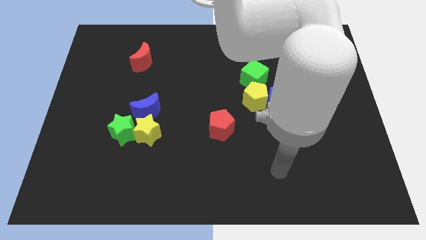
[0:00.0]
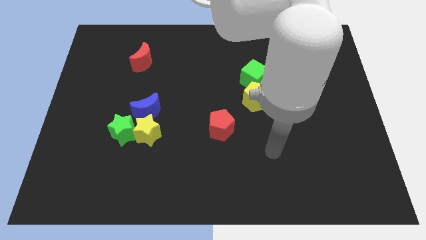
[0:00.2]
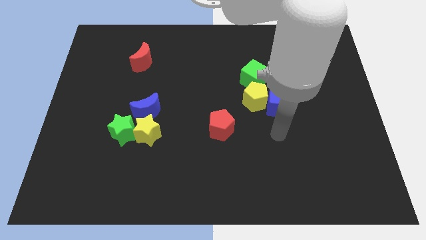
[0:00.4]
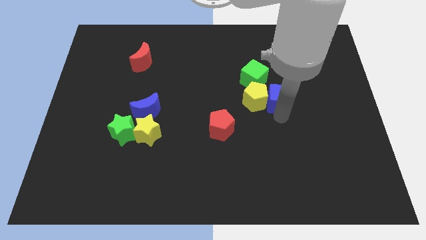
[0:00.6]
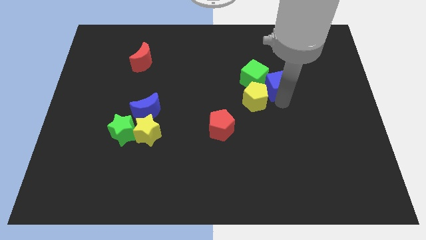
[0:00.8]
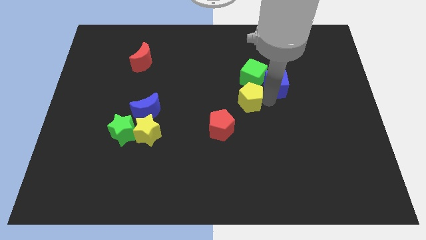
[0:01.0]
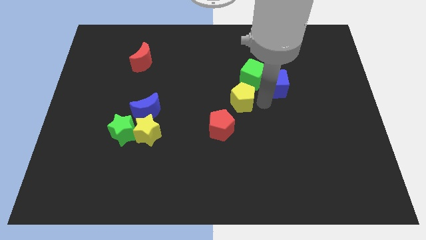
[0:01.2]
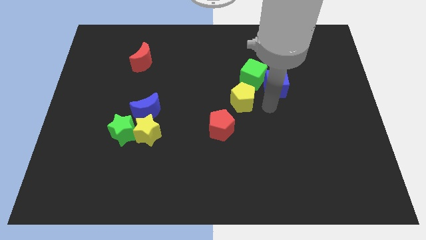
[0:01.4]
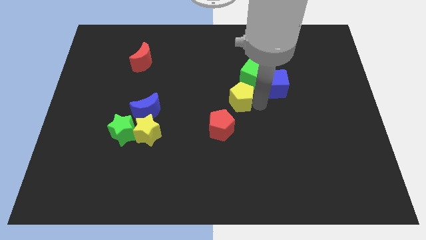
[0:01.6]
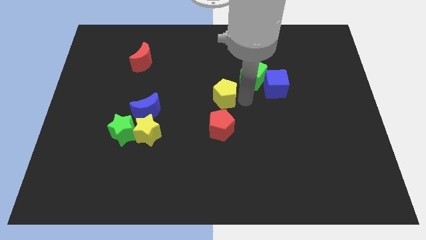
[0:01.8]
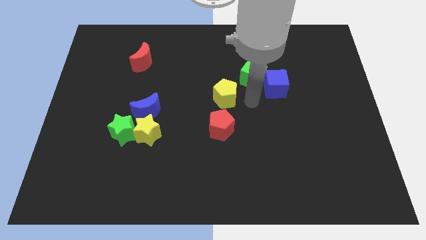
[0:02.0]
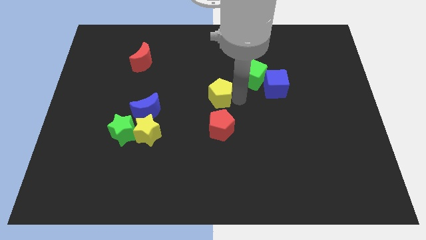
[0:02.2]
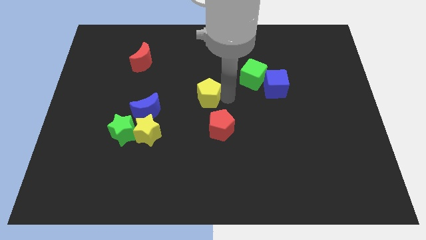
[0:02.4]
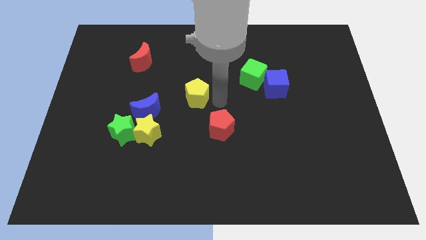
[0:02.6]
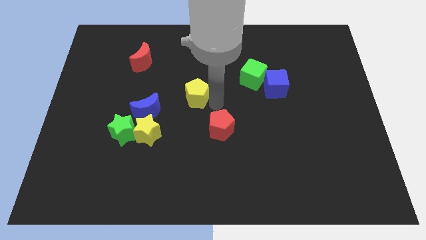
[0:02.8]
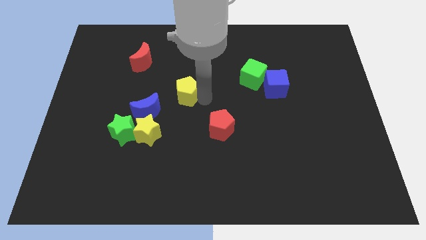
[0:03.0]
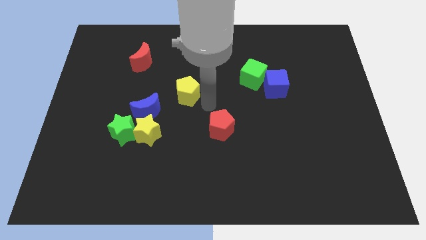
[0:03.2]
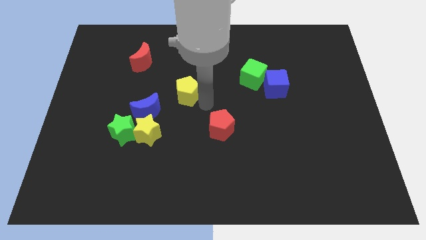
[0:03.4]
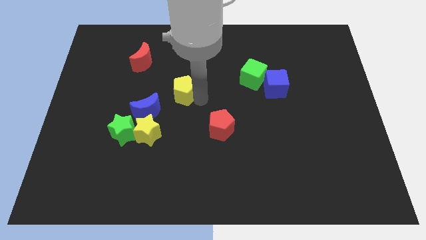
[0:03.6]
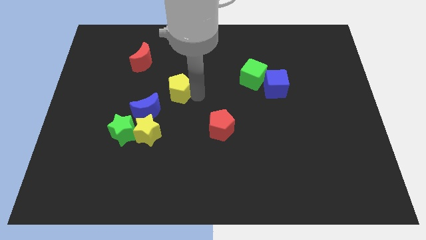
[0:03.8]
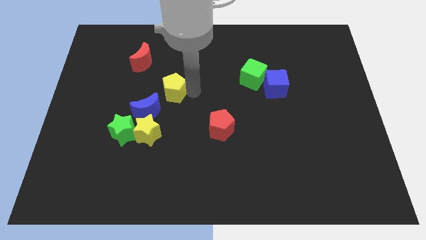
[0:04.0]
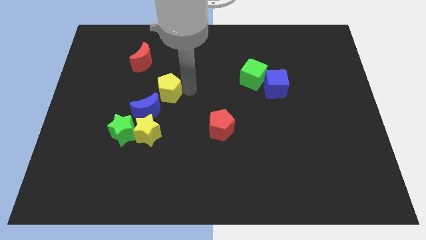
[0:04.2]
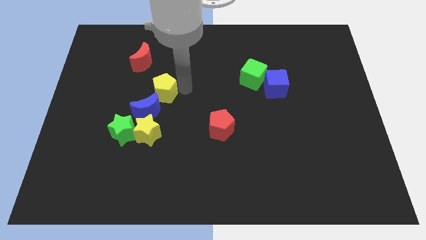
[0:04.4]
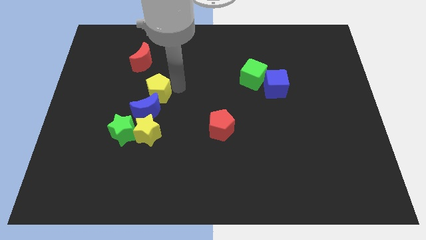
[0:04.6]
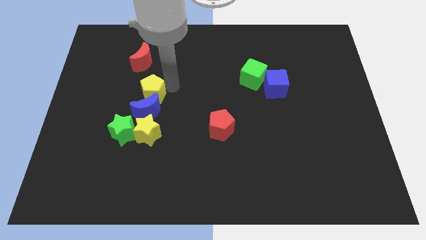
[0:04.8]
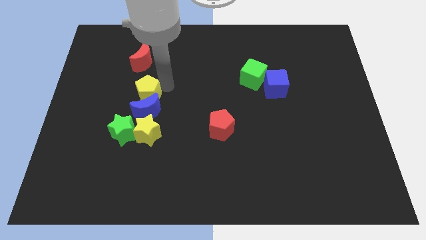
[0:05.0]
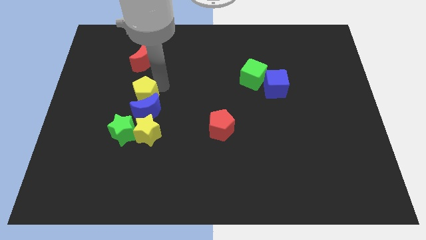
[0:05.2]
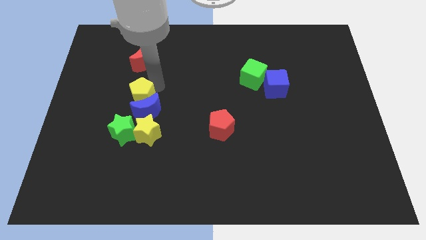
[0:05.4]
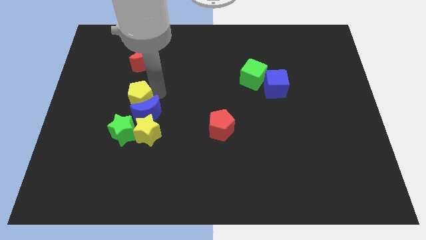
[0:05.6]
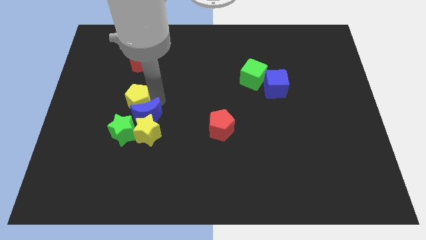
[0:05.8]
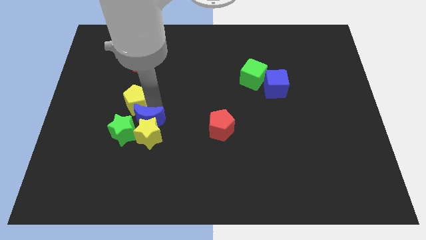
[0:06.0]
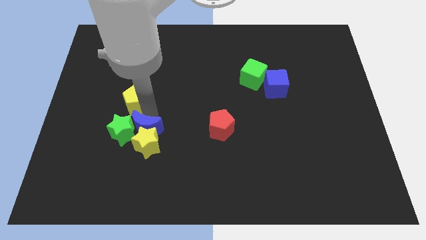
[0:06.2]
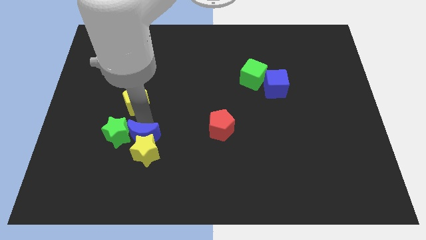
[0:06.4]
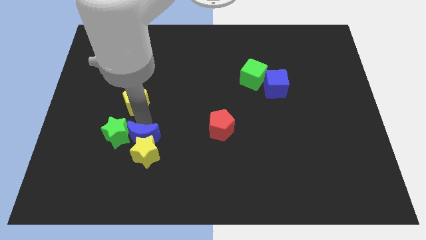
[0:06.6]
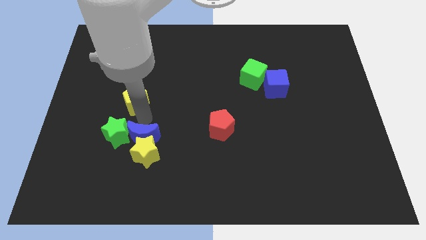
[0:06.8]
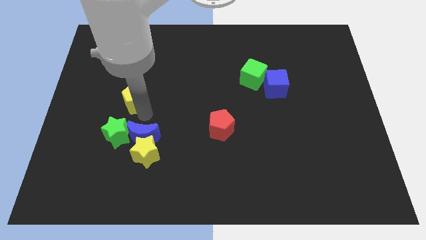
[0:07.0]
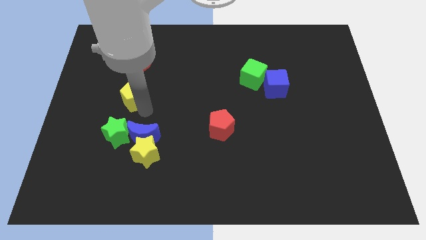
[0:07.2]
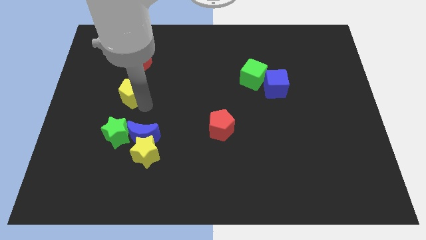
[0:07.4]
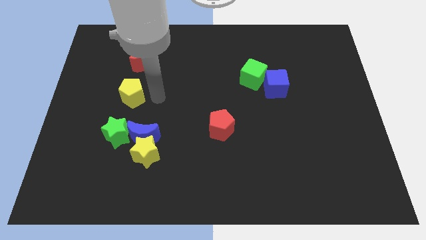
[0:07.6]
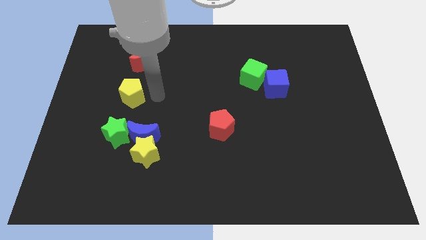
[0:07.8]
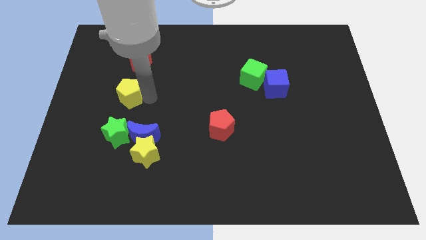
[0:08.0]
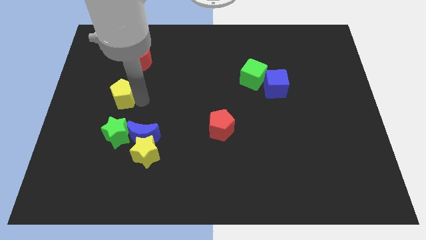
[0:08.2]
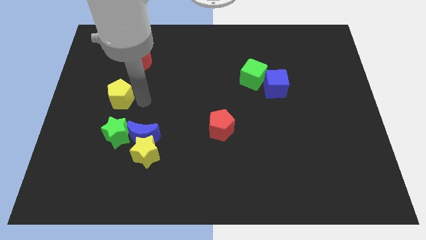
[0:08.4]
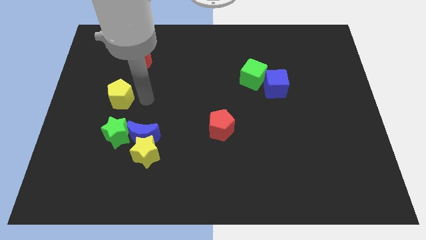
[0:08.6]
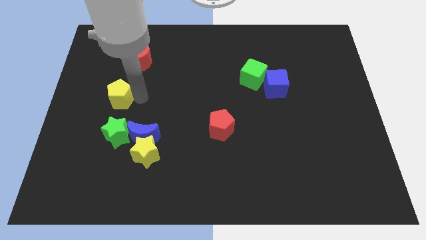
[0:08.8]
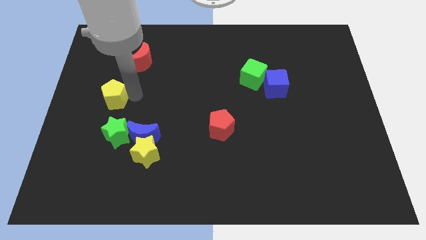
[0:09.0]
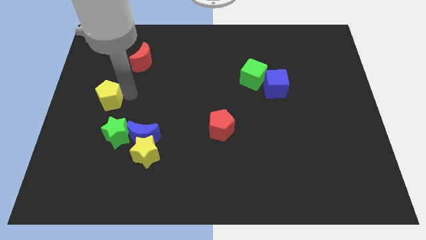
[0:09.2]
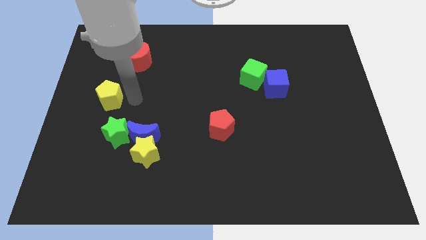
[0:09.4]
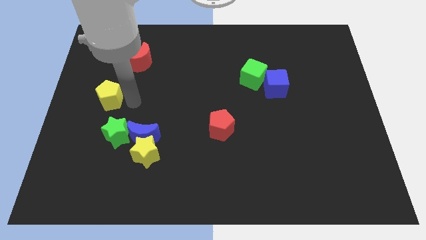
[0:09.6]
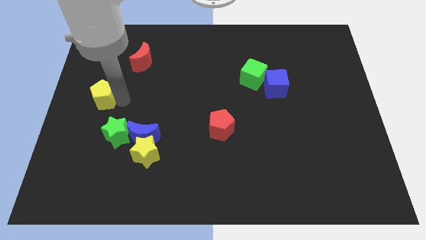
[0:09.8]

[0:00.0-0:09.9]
put the yellow pentagon to the center left

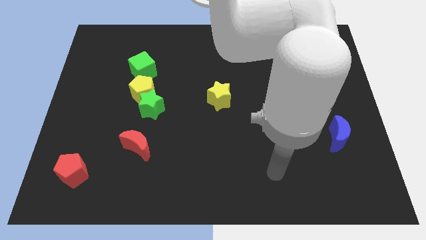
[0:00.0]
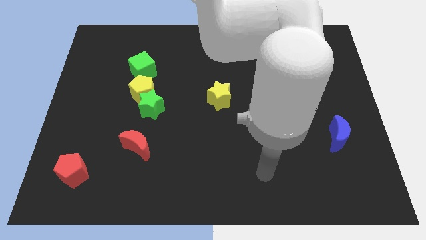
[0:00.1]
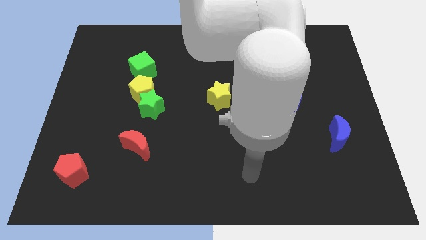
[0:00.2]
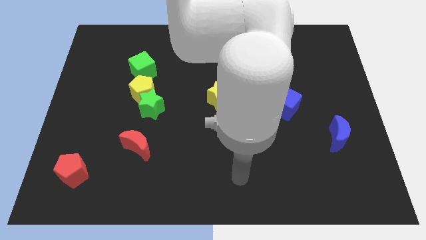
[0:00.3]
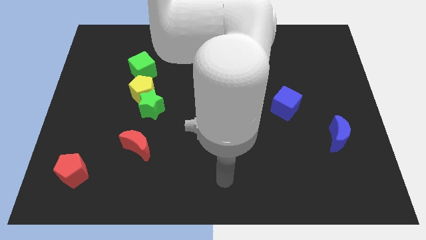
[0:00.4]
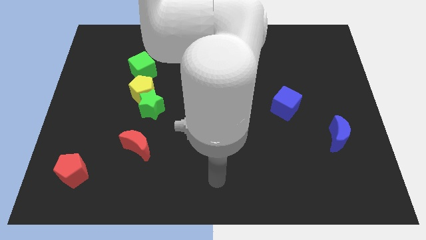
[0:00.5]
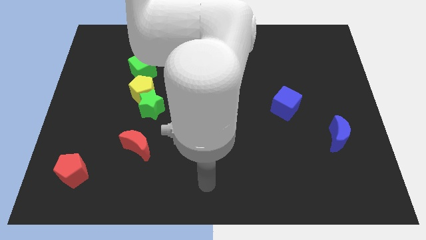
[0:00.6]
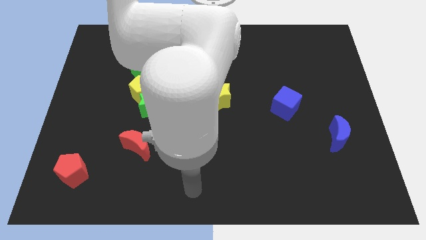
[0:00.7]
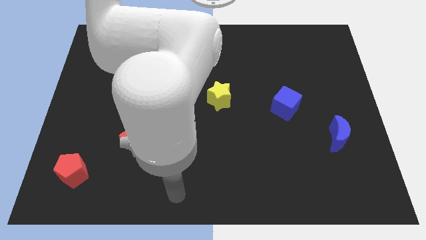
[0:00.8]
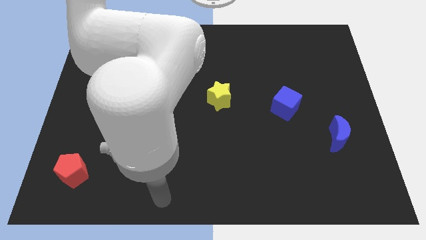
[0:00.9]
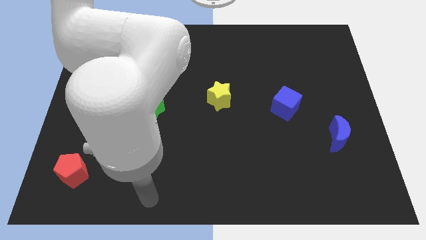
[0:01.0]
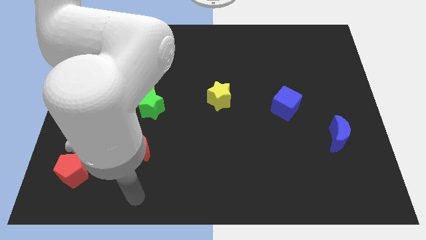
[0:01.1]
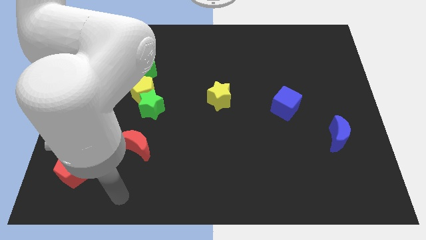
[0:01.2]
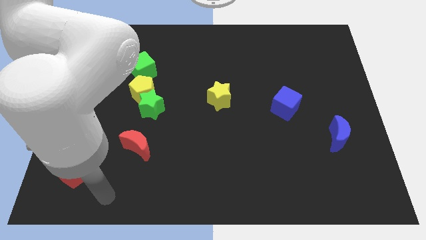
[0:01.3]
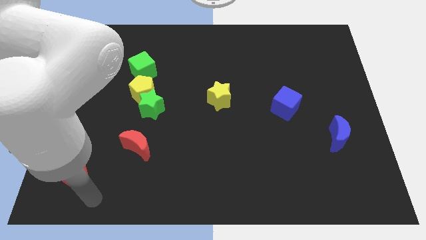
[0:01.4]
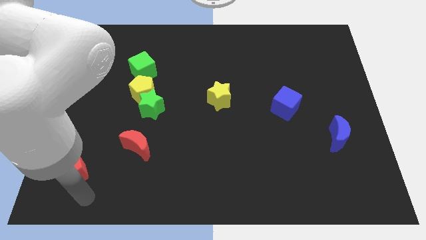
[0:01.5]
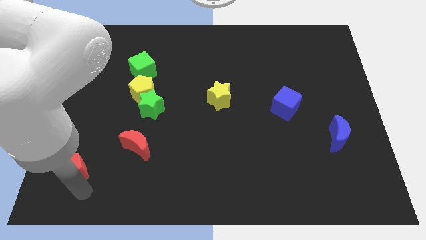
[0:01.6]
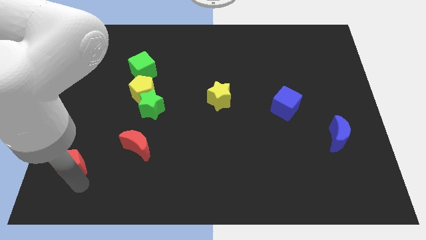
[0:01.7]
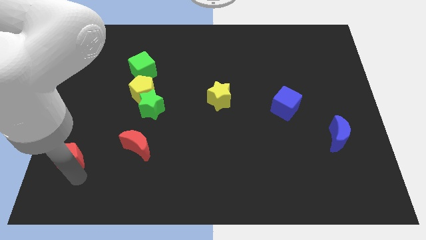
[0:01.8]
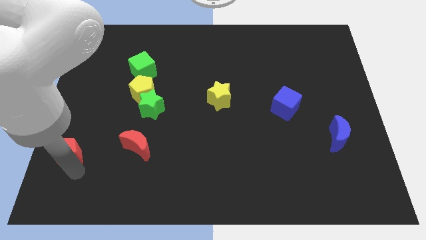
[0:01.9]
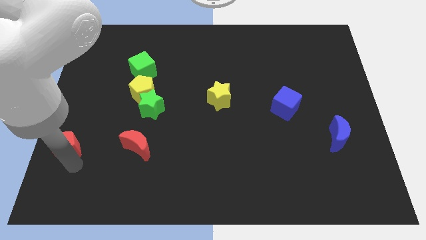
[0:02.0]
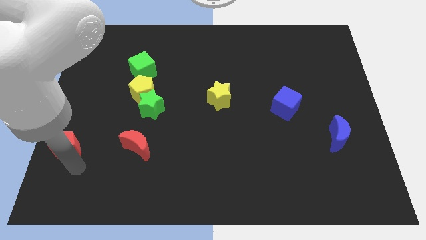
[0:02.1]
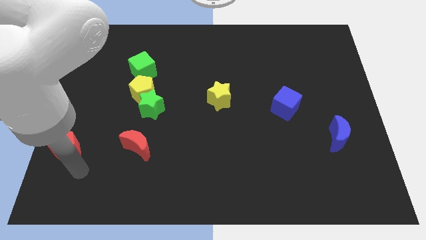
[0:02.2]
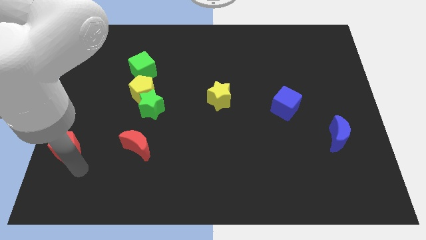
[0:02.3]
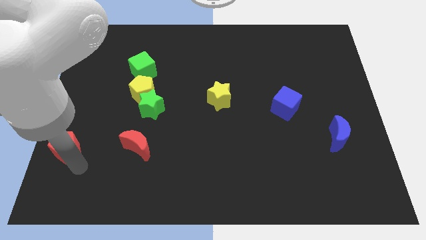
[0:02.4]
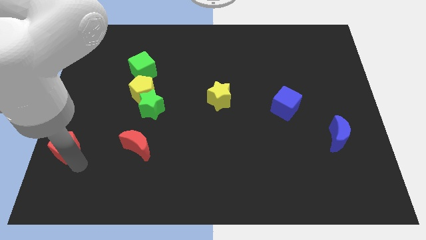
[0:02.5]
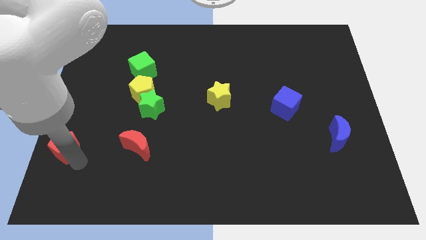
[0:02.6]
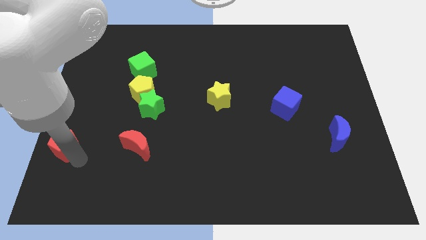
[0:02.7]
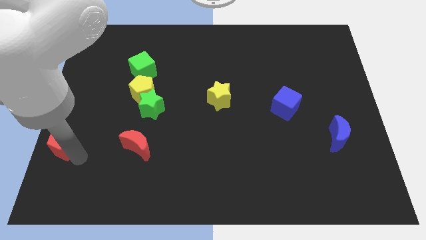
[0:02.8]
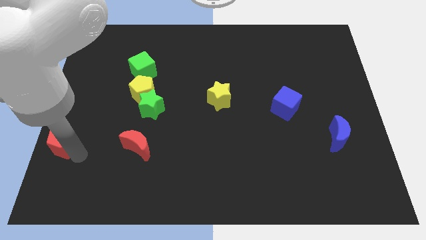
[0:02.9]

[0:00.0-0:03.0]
put the red pentagon to the center left
